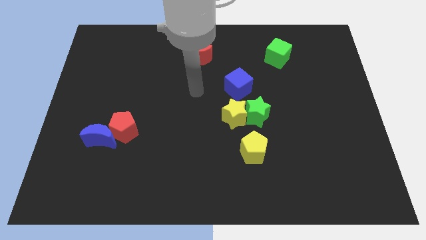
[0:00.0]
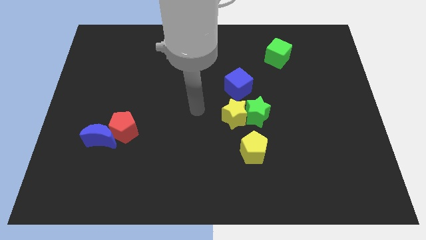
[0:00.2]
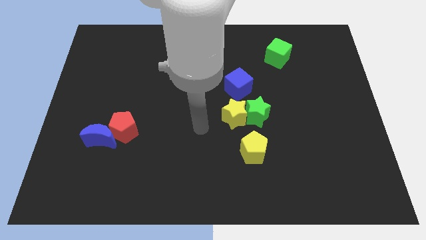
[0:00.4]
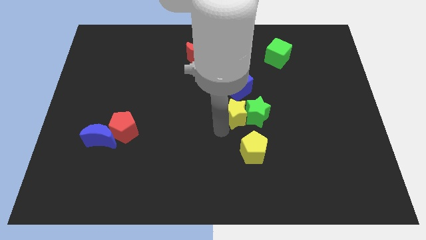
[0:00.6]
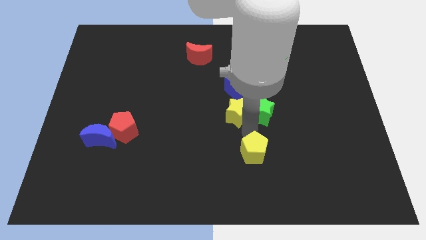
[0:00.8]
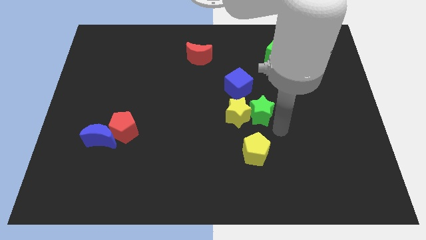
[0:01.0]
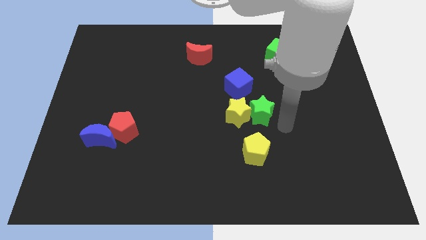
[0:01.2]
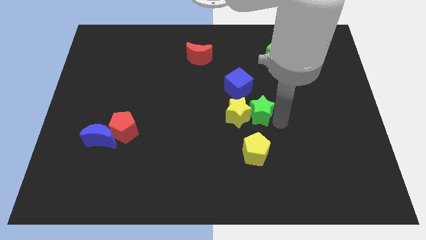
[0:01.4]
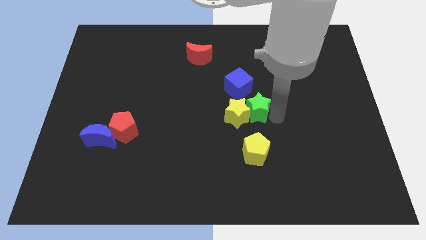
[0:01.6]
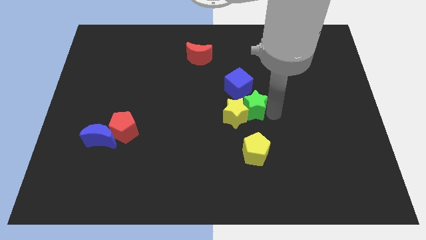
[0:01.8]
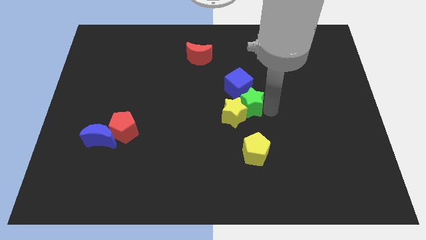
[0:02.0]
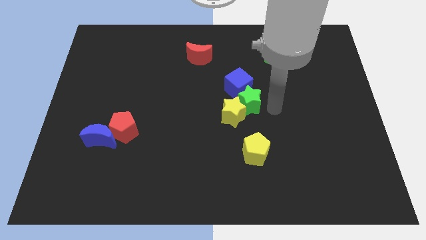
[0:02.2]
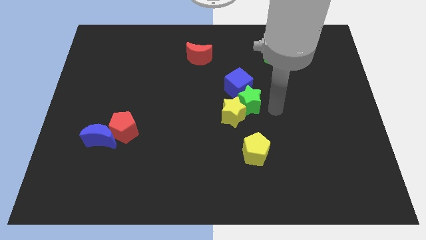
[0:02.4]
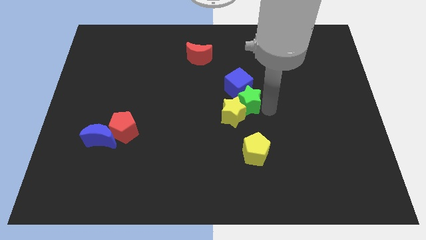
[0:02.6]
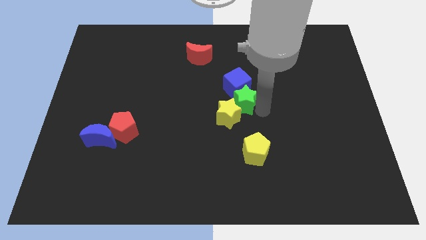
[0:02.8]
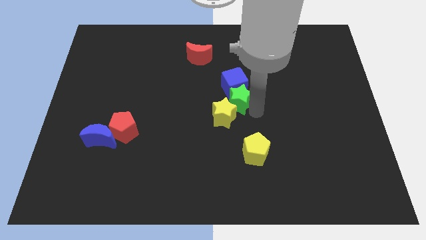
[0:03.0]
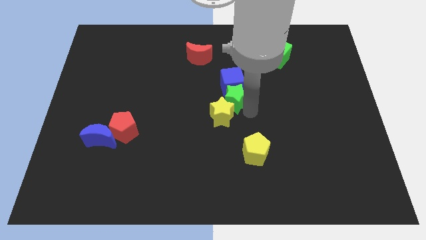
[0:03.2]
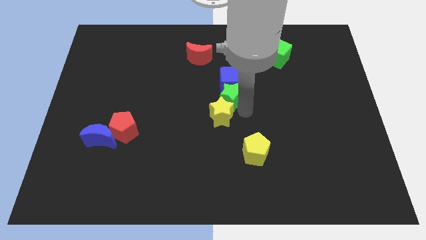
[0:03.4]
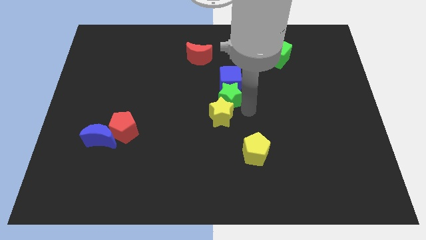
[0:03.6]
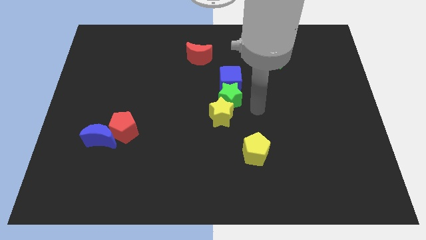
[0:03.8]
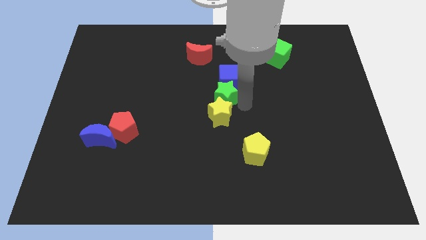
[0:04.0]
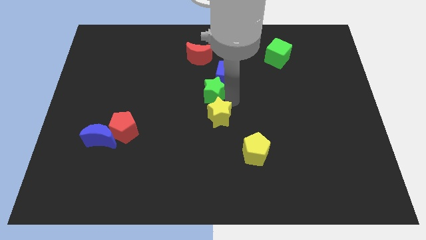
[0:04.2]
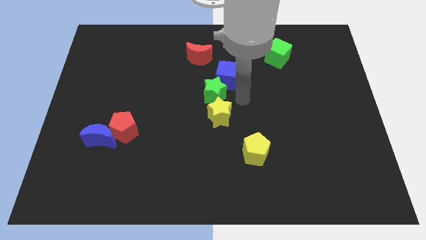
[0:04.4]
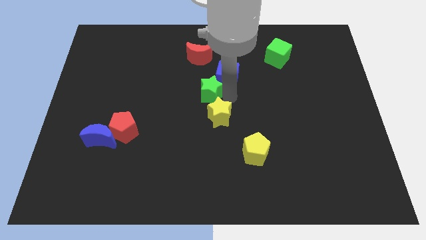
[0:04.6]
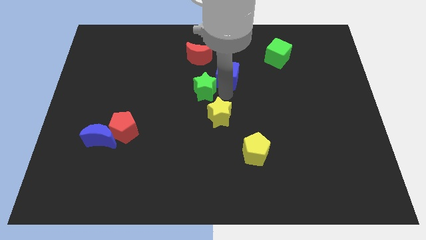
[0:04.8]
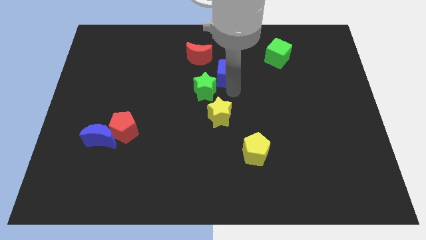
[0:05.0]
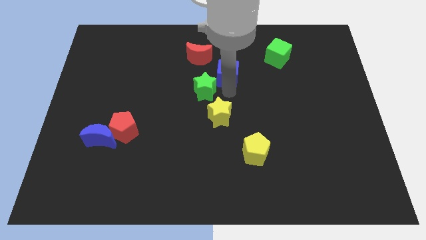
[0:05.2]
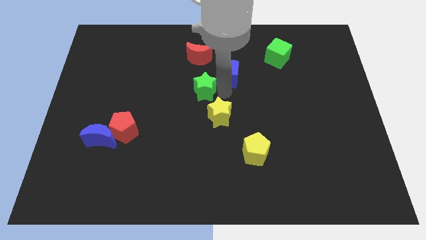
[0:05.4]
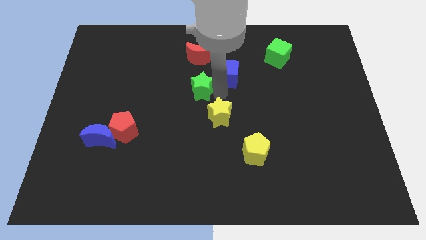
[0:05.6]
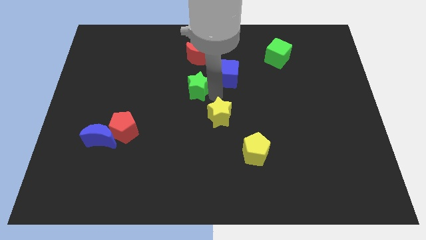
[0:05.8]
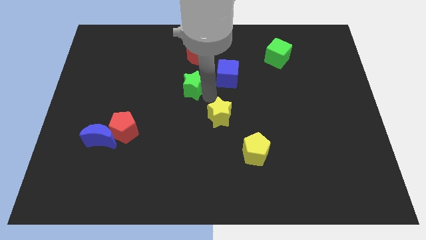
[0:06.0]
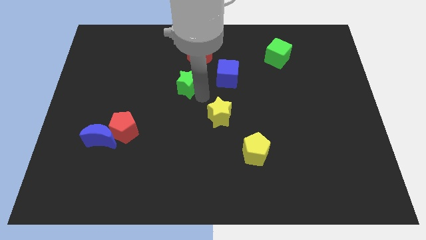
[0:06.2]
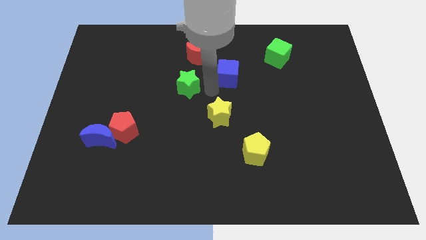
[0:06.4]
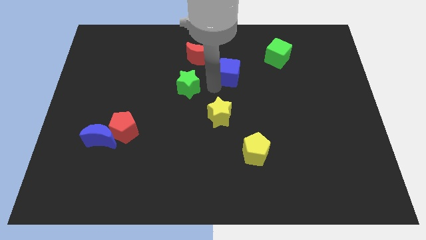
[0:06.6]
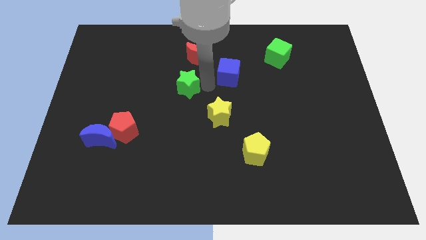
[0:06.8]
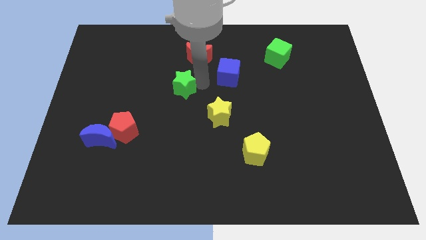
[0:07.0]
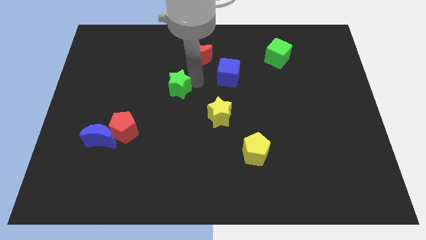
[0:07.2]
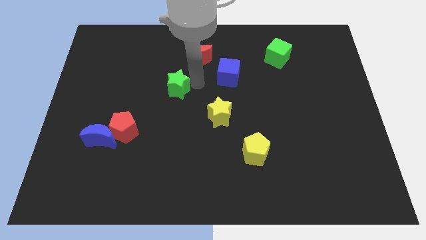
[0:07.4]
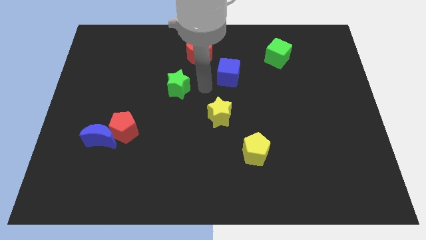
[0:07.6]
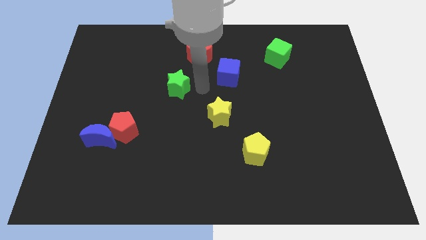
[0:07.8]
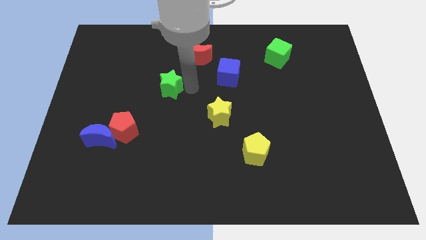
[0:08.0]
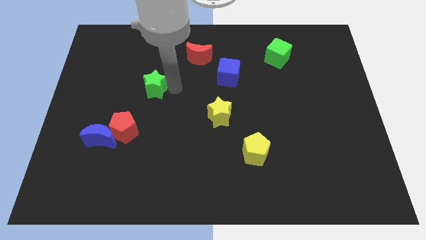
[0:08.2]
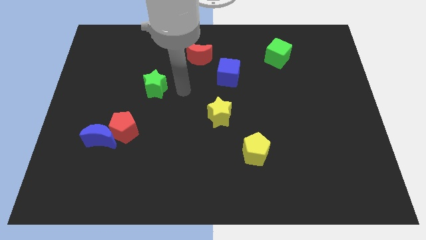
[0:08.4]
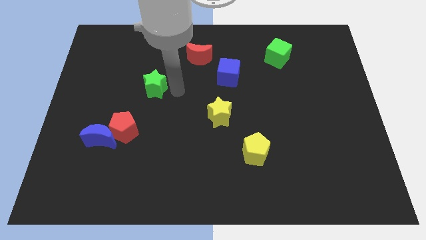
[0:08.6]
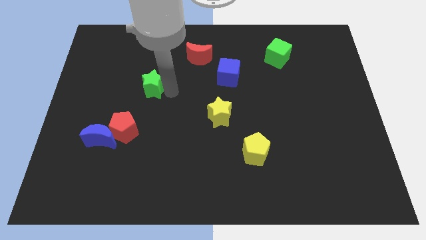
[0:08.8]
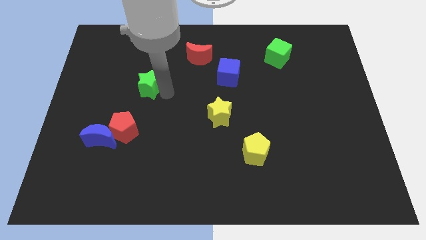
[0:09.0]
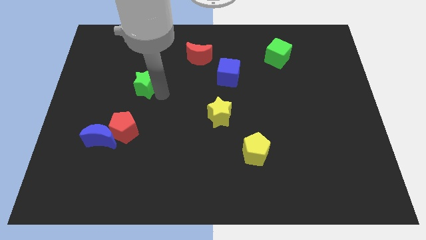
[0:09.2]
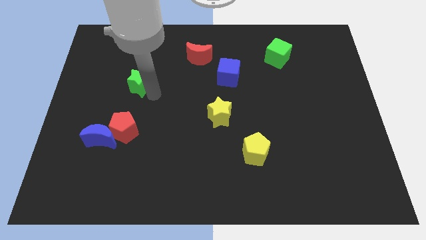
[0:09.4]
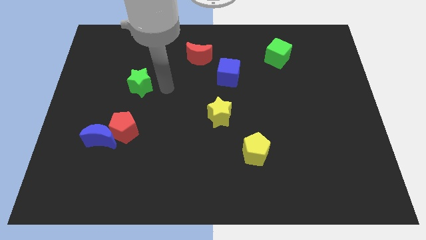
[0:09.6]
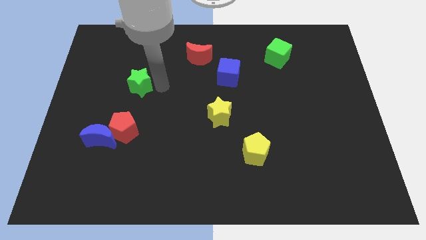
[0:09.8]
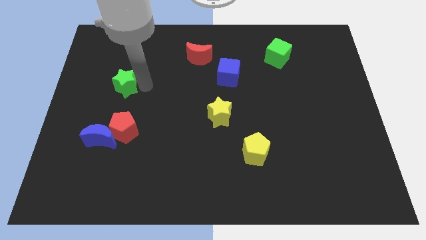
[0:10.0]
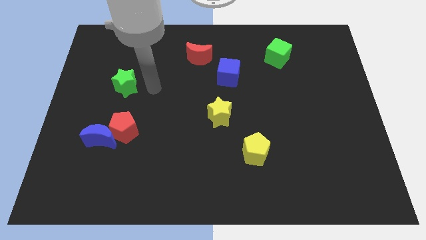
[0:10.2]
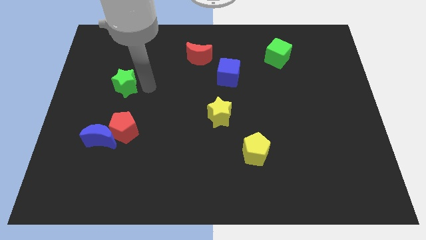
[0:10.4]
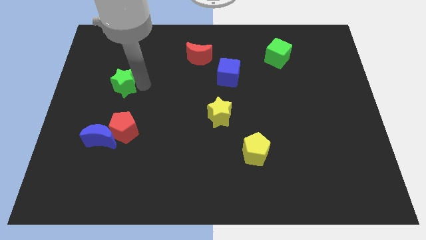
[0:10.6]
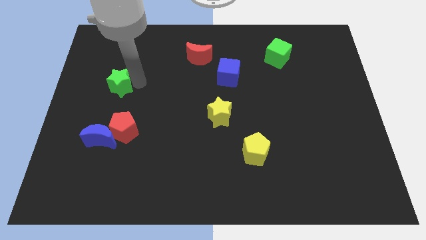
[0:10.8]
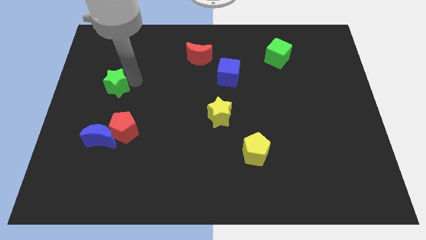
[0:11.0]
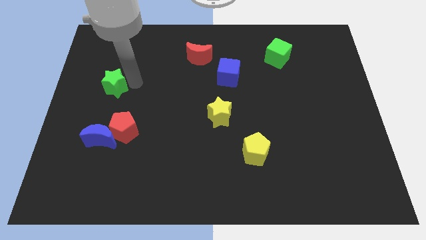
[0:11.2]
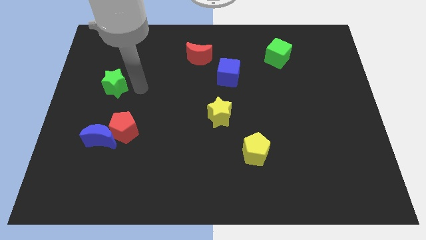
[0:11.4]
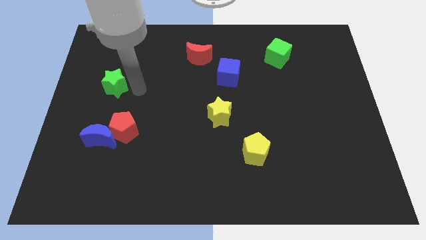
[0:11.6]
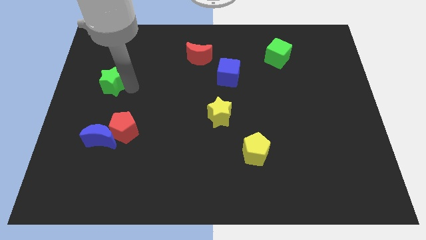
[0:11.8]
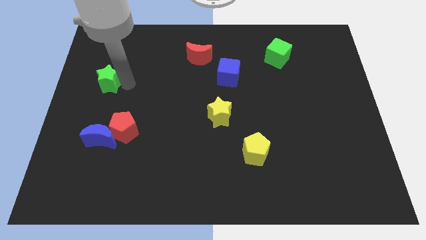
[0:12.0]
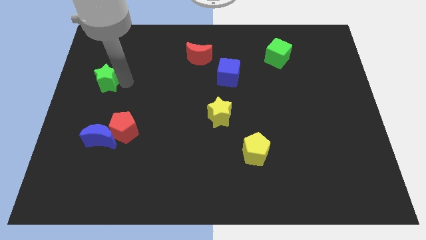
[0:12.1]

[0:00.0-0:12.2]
slide the green star to the left side
